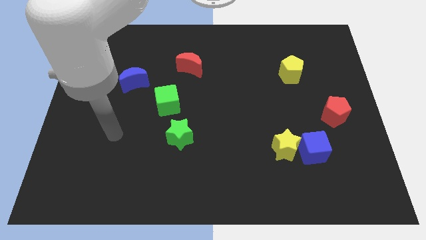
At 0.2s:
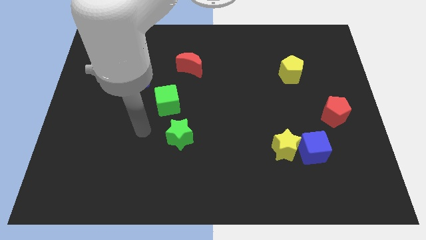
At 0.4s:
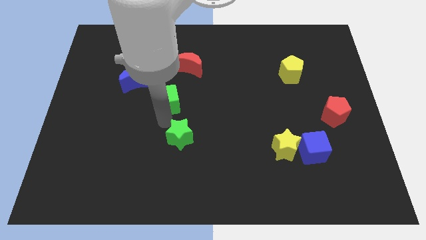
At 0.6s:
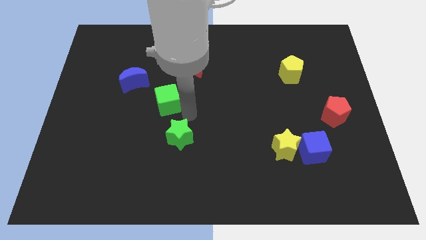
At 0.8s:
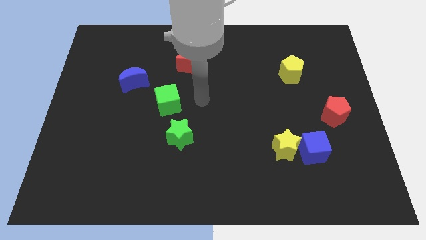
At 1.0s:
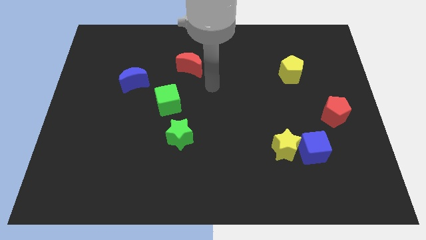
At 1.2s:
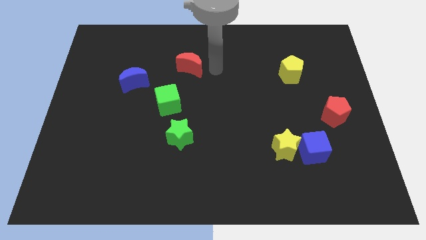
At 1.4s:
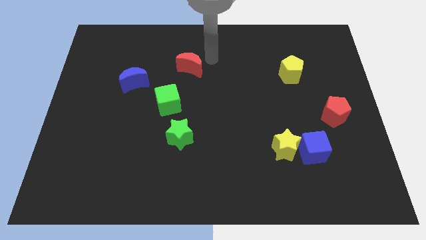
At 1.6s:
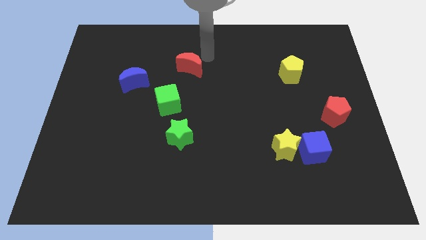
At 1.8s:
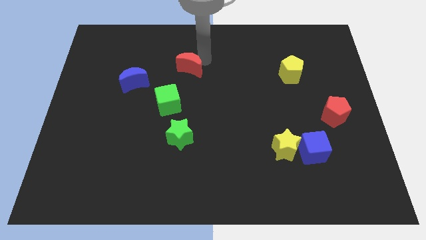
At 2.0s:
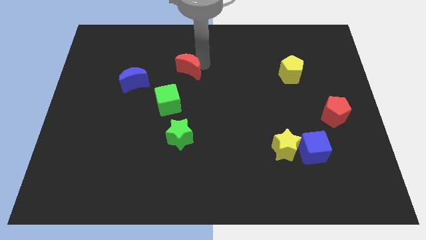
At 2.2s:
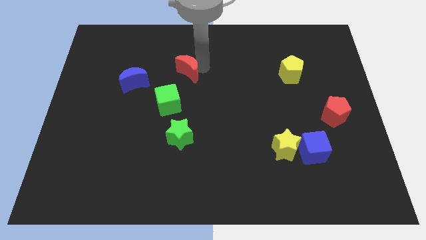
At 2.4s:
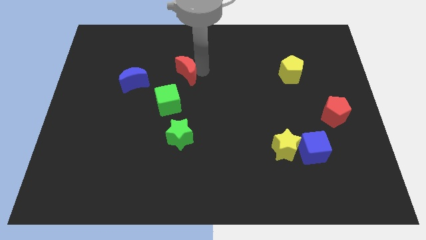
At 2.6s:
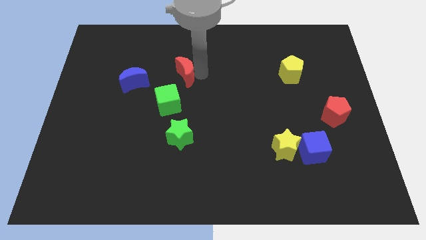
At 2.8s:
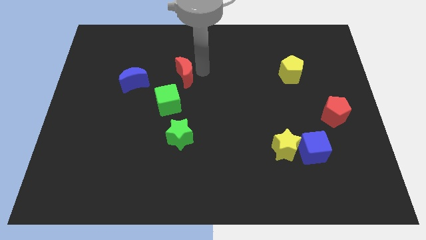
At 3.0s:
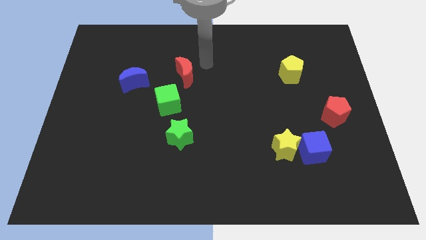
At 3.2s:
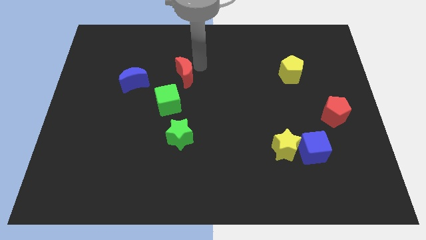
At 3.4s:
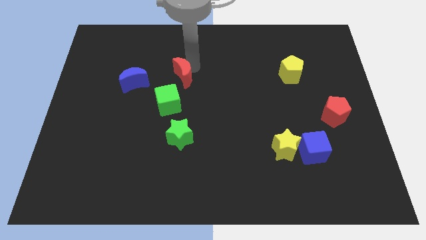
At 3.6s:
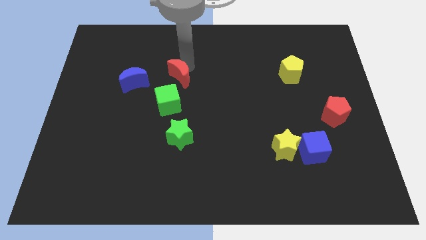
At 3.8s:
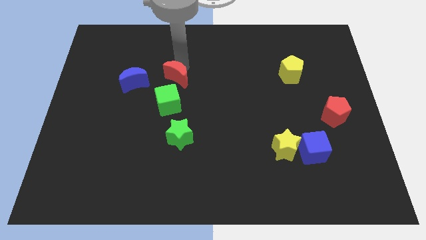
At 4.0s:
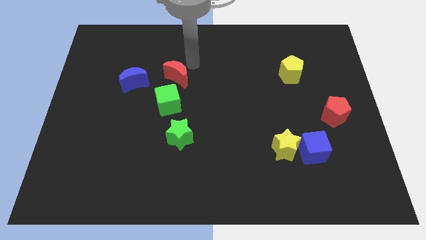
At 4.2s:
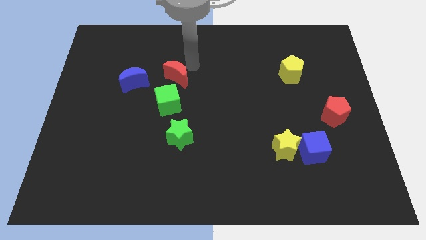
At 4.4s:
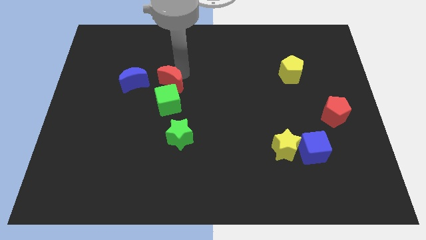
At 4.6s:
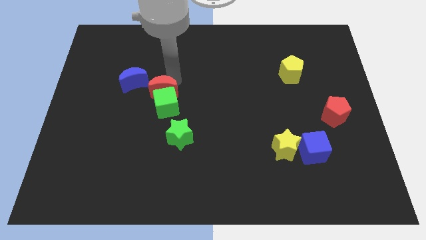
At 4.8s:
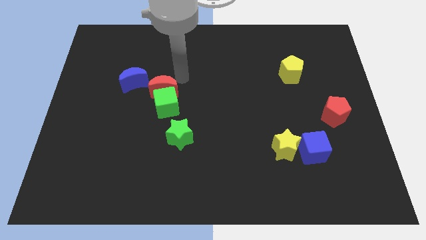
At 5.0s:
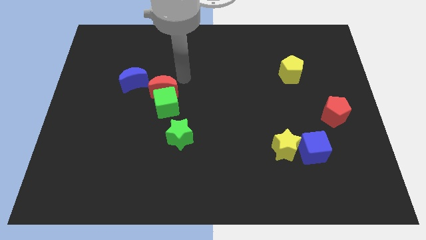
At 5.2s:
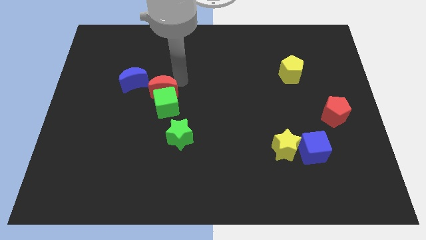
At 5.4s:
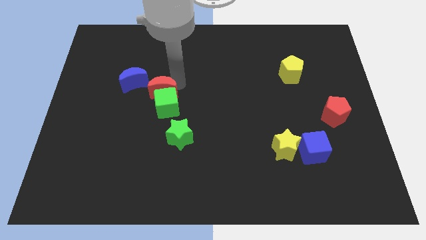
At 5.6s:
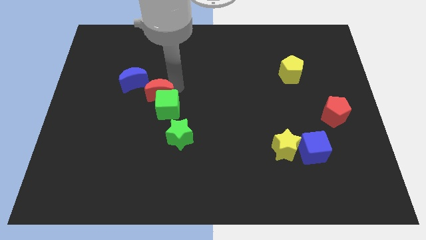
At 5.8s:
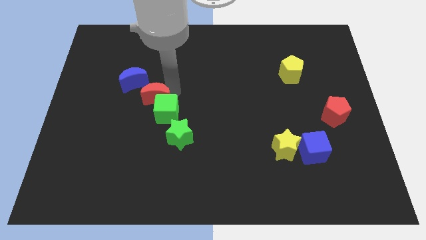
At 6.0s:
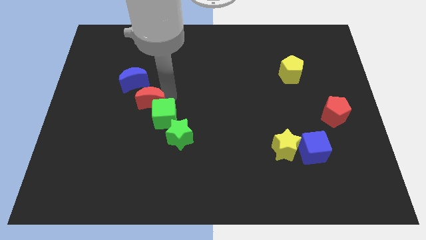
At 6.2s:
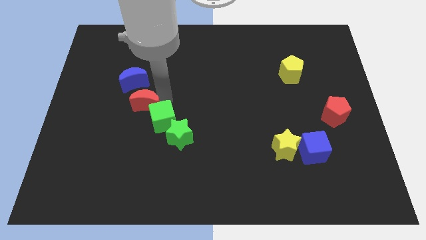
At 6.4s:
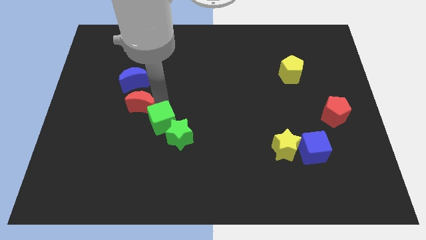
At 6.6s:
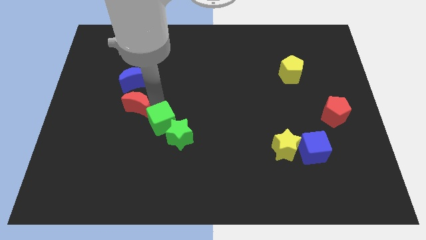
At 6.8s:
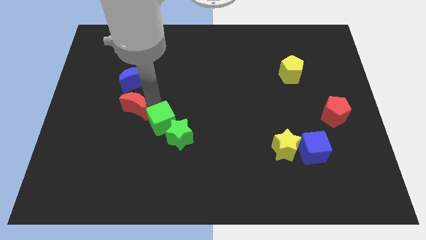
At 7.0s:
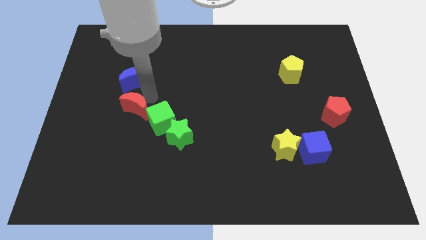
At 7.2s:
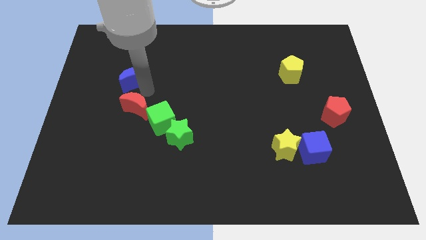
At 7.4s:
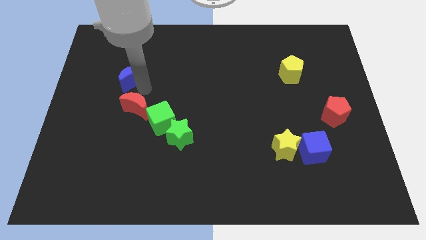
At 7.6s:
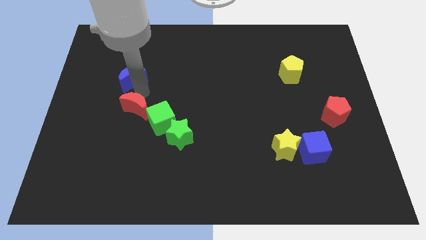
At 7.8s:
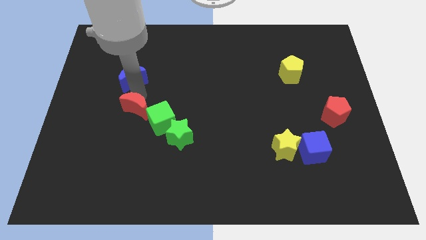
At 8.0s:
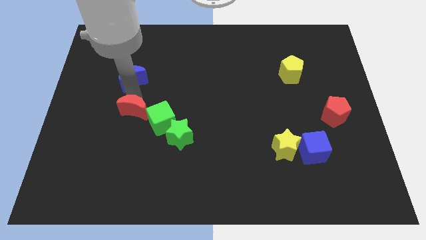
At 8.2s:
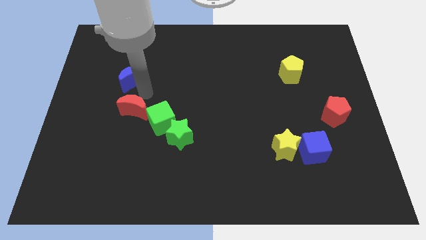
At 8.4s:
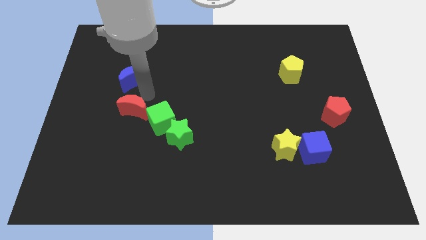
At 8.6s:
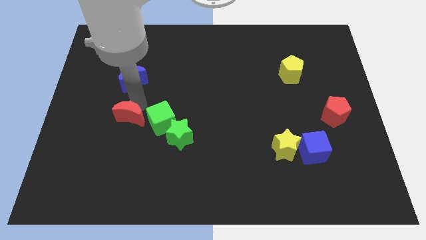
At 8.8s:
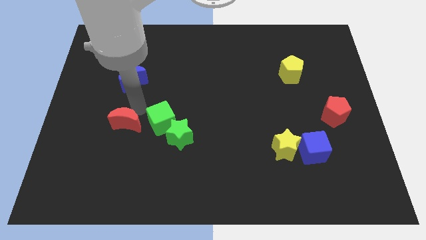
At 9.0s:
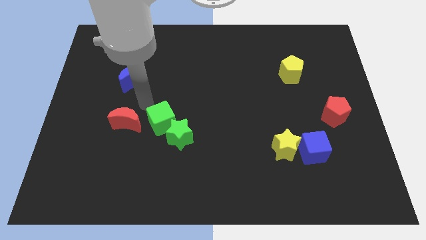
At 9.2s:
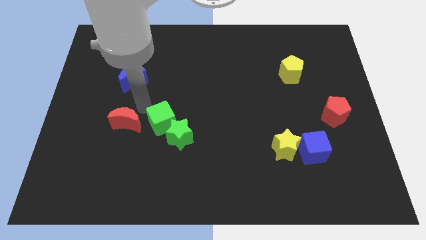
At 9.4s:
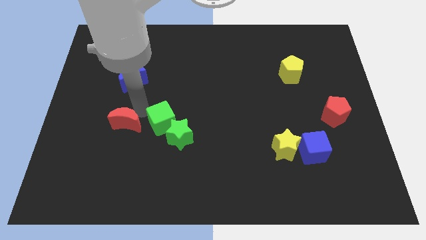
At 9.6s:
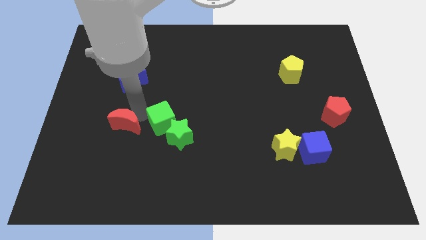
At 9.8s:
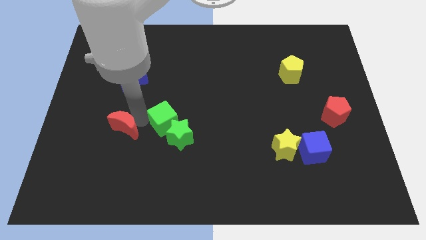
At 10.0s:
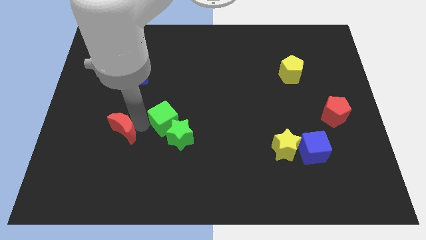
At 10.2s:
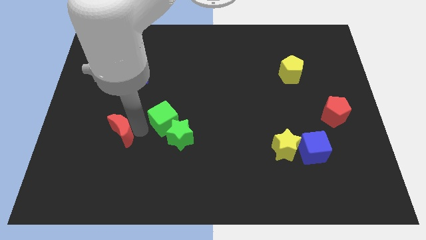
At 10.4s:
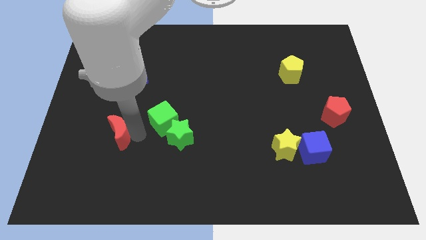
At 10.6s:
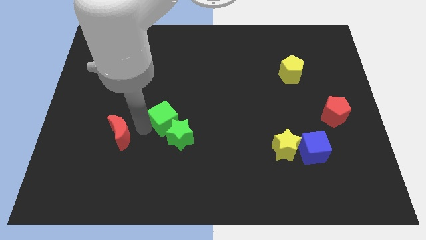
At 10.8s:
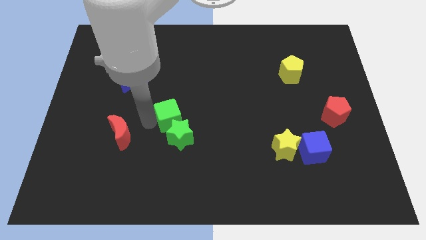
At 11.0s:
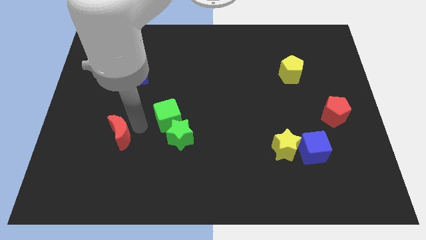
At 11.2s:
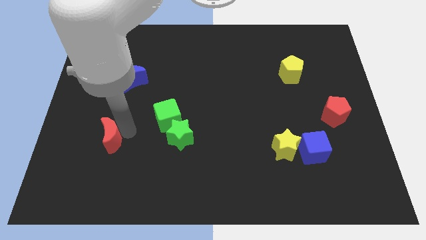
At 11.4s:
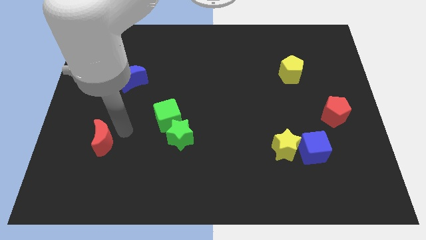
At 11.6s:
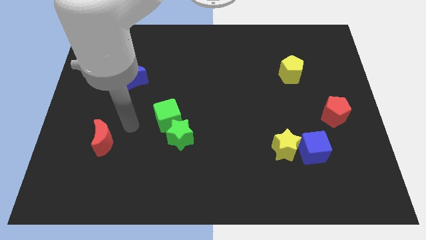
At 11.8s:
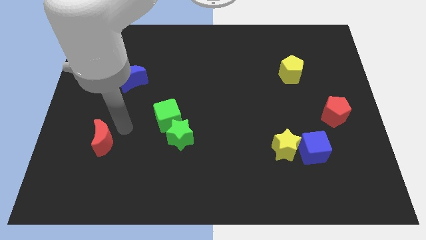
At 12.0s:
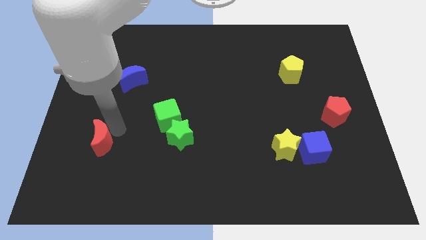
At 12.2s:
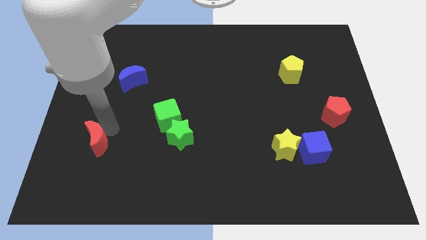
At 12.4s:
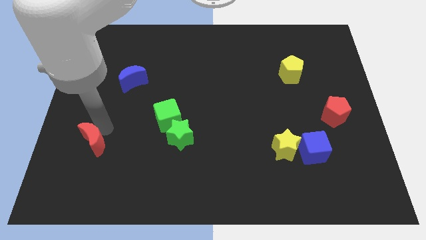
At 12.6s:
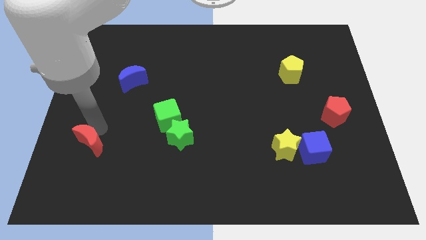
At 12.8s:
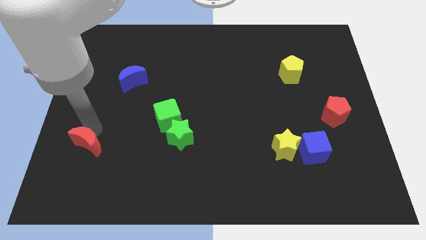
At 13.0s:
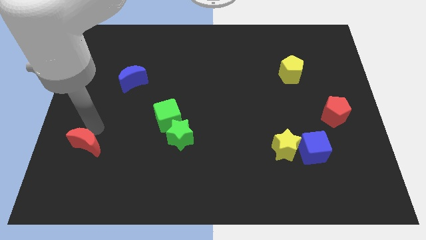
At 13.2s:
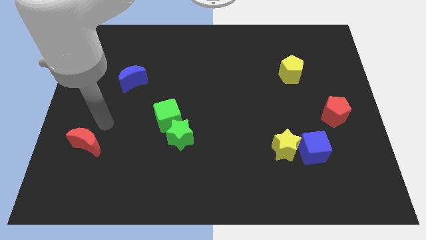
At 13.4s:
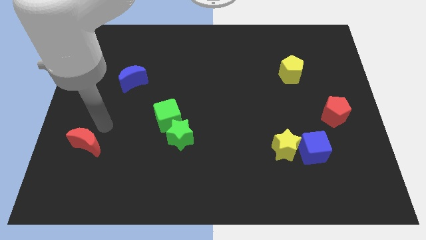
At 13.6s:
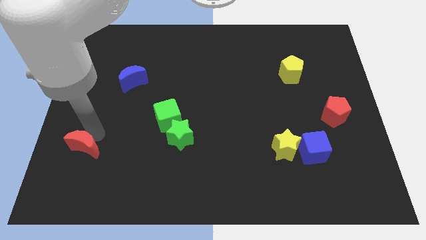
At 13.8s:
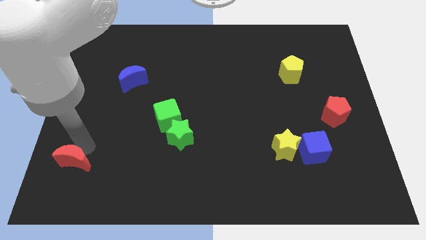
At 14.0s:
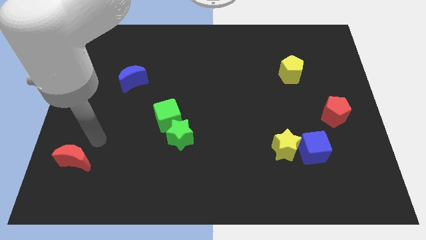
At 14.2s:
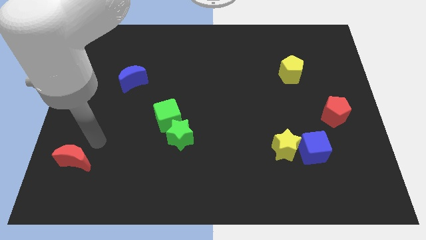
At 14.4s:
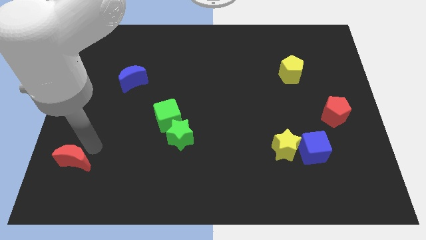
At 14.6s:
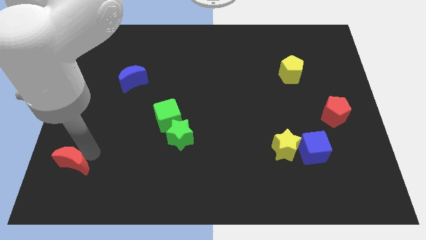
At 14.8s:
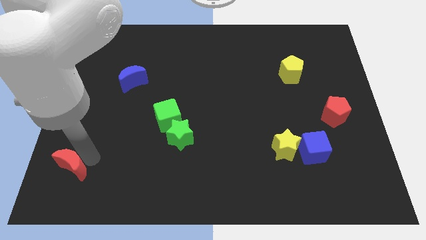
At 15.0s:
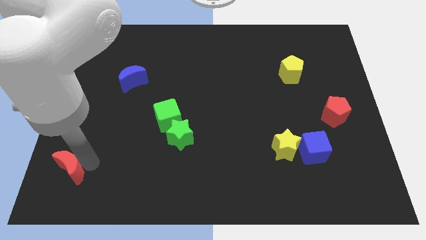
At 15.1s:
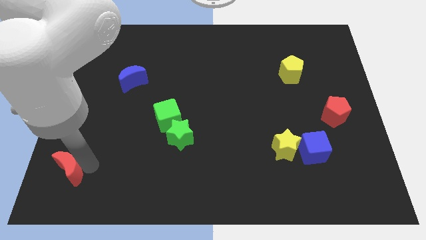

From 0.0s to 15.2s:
put the red moon to the lower left corner
